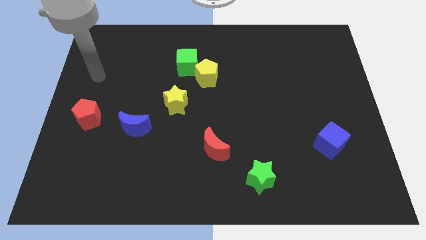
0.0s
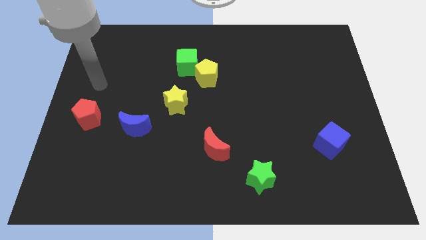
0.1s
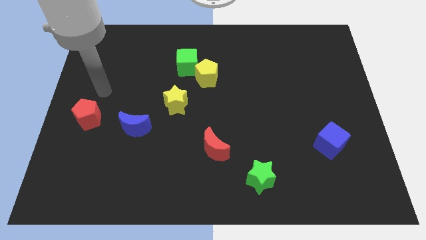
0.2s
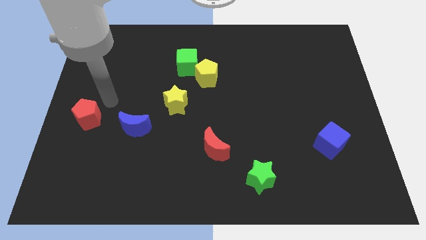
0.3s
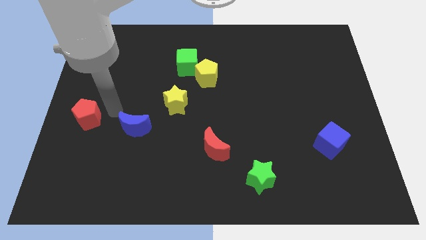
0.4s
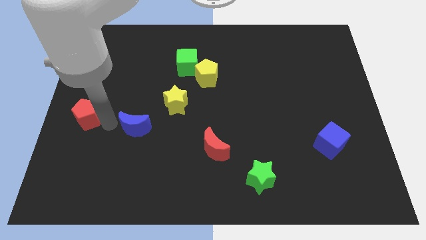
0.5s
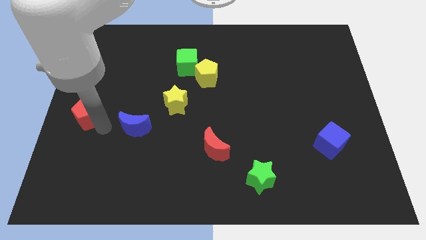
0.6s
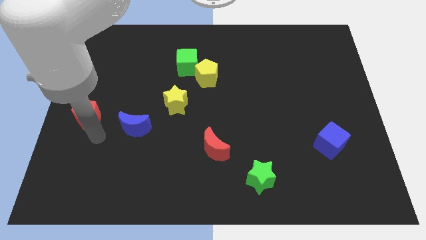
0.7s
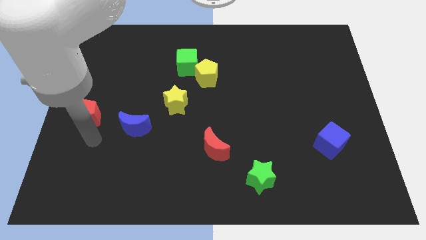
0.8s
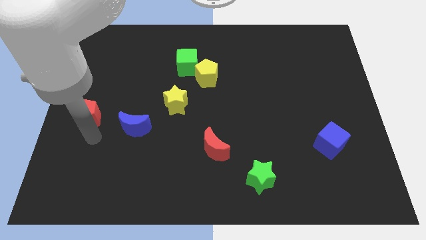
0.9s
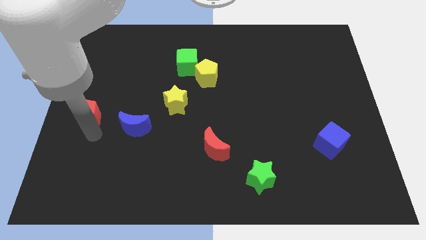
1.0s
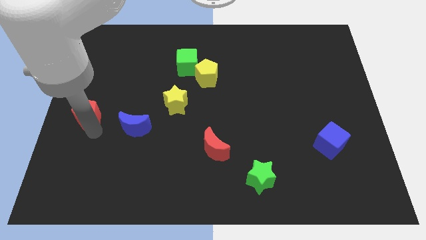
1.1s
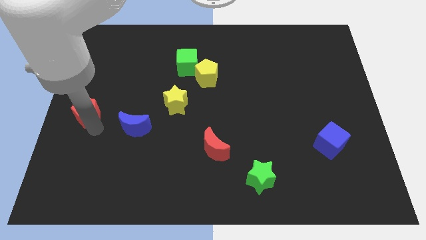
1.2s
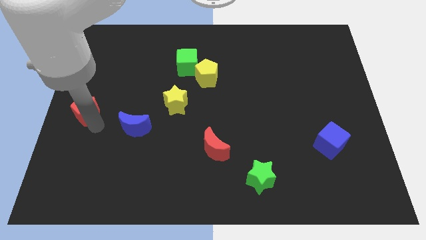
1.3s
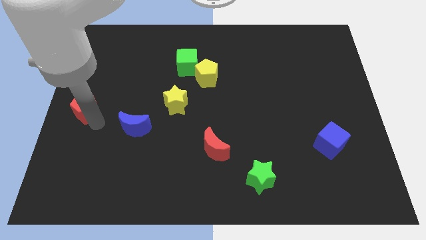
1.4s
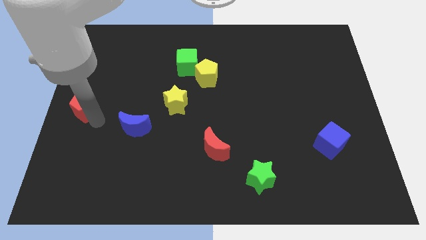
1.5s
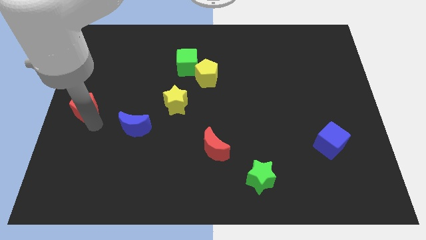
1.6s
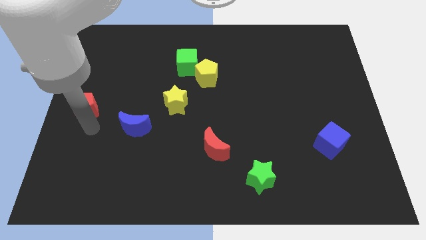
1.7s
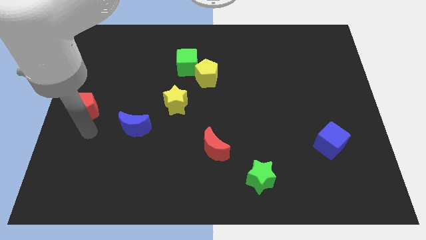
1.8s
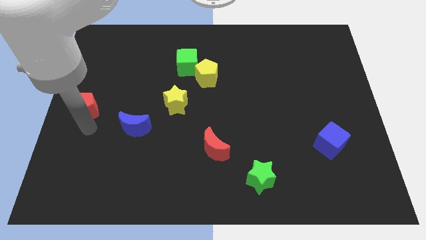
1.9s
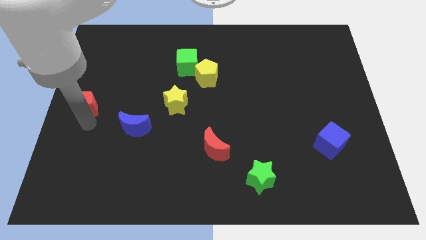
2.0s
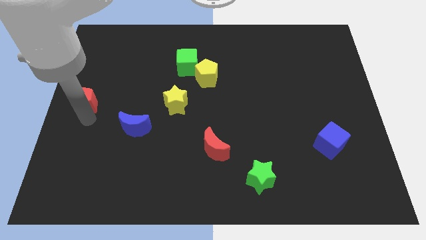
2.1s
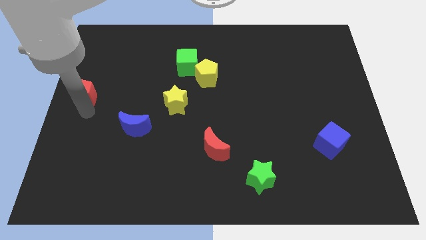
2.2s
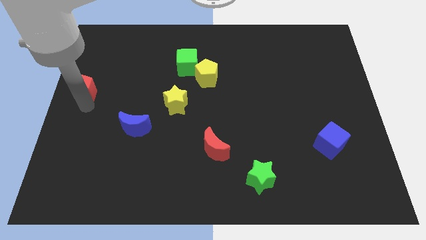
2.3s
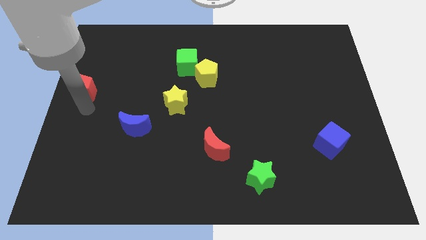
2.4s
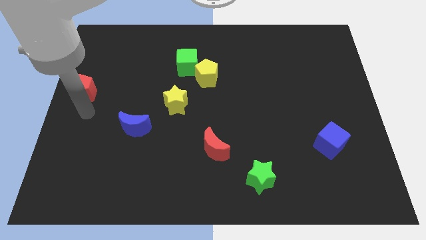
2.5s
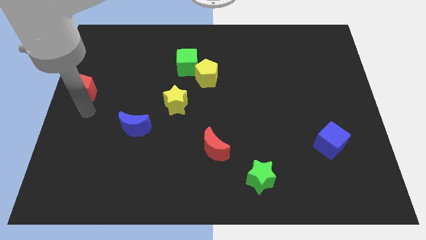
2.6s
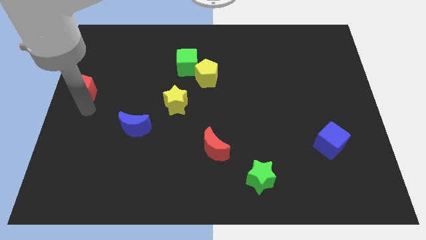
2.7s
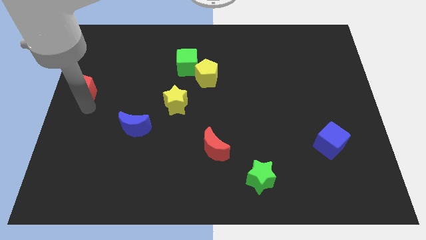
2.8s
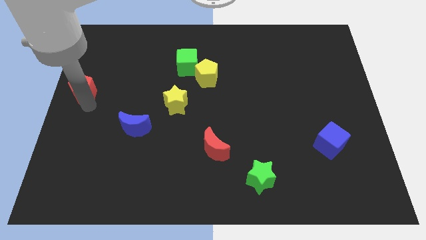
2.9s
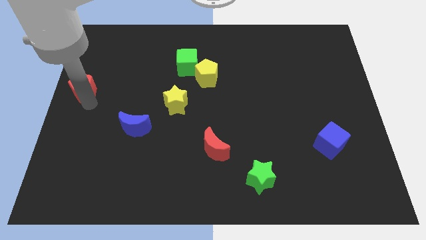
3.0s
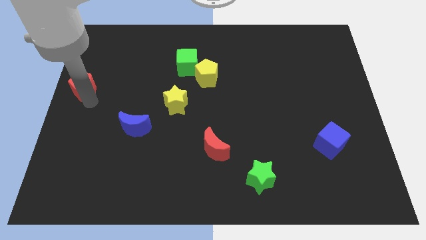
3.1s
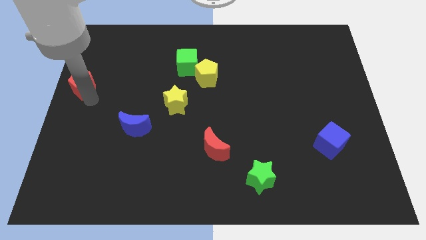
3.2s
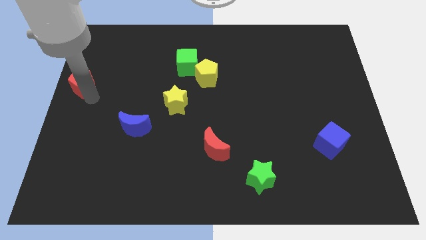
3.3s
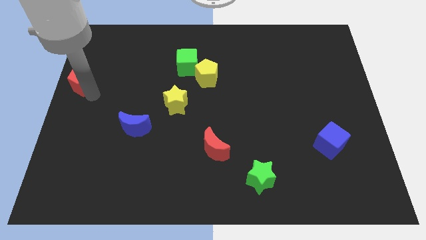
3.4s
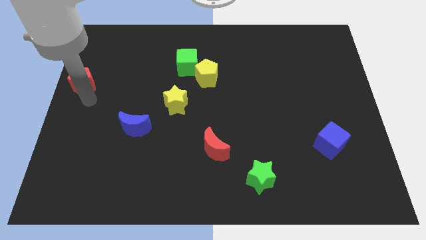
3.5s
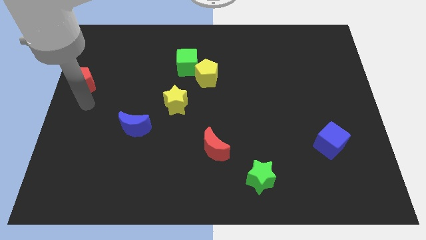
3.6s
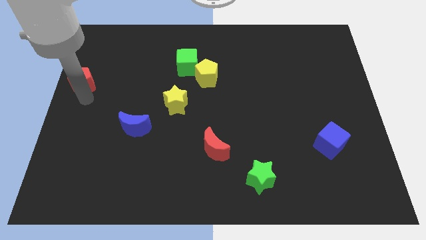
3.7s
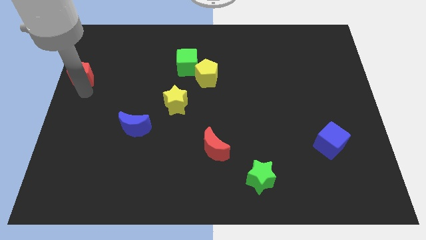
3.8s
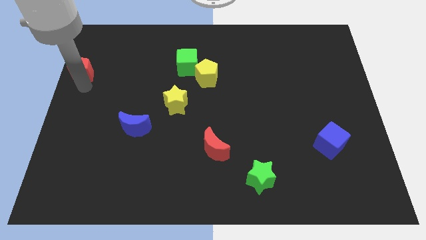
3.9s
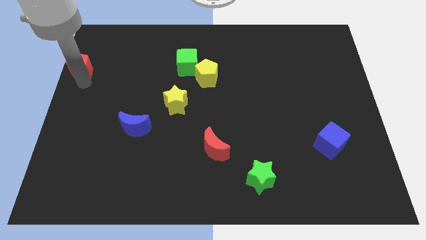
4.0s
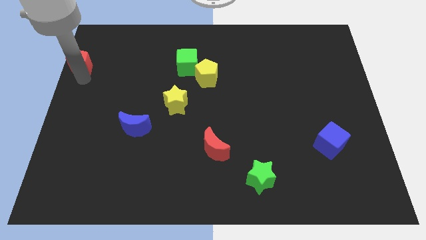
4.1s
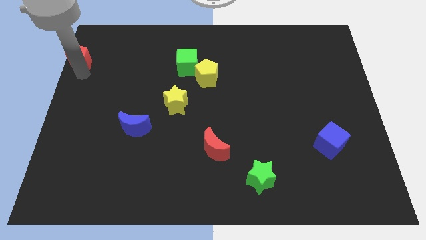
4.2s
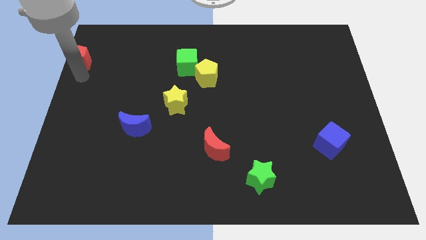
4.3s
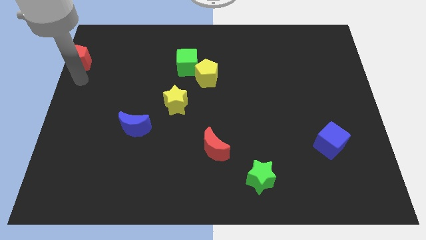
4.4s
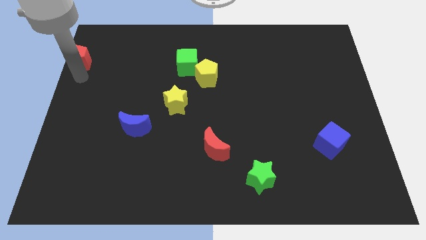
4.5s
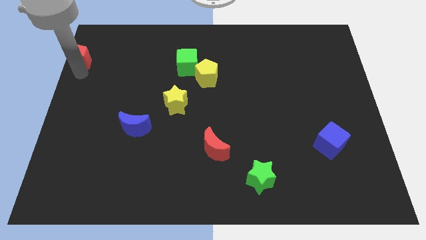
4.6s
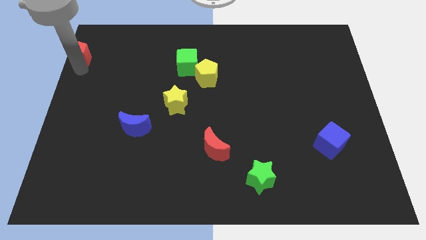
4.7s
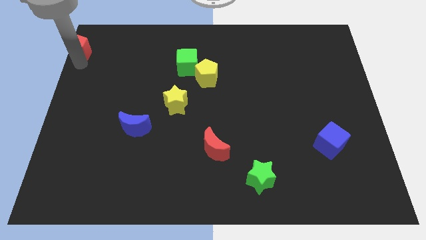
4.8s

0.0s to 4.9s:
put the red pentagon to the top left of the board

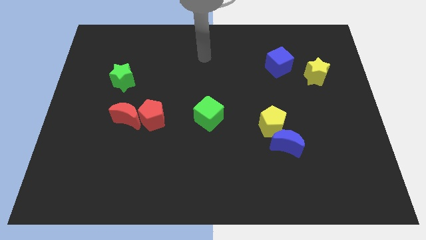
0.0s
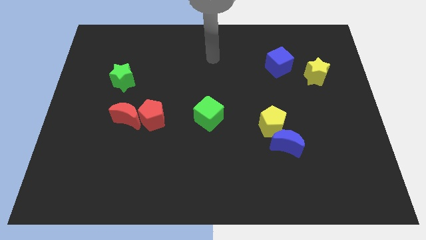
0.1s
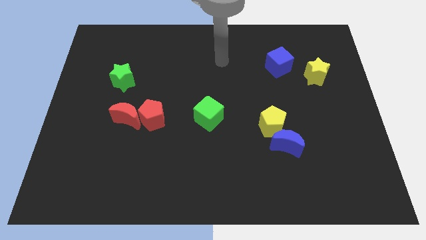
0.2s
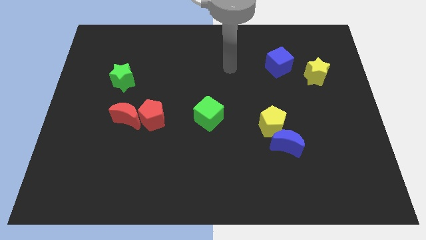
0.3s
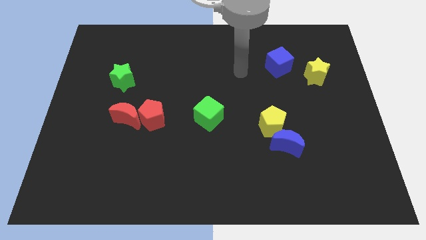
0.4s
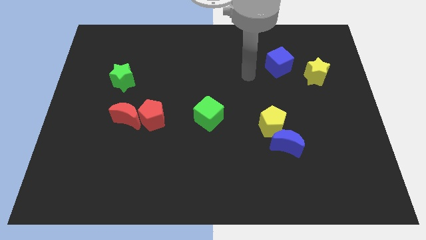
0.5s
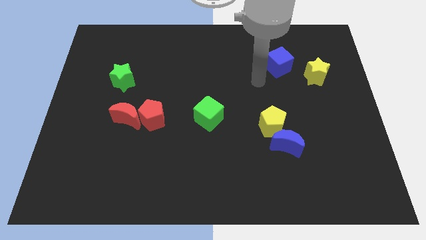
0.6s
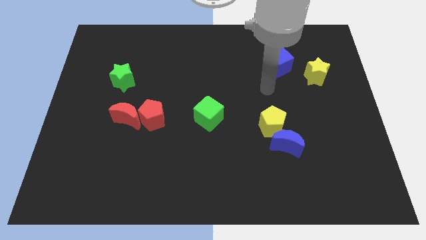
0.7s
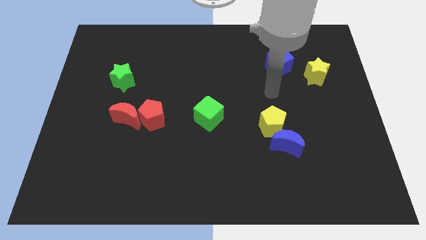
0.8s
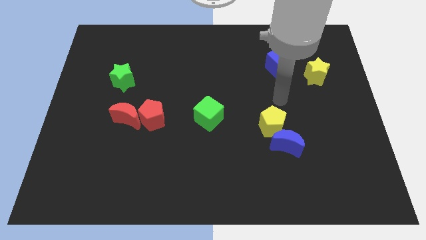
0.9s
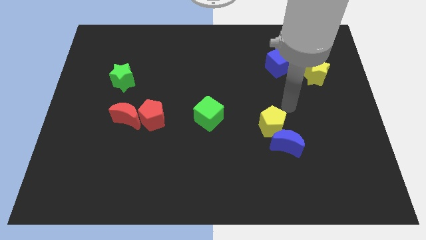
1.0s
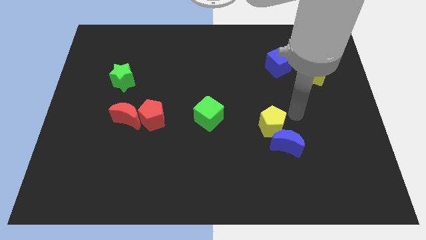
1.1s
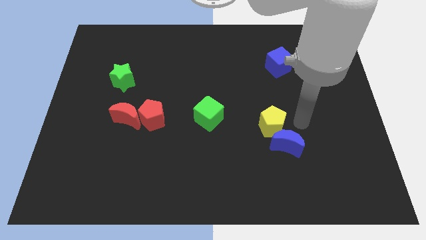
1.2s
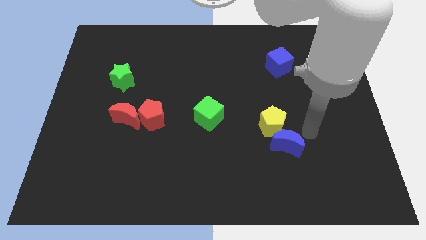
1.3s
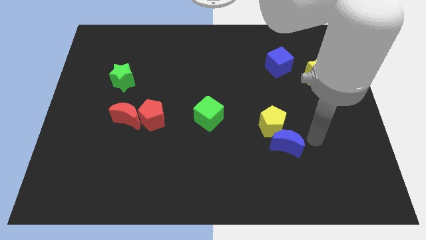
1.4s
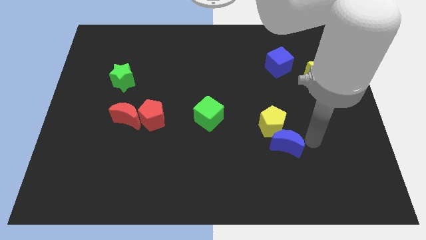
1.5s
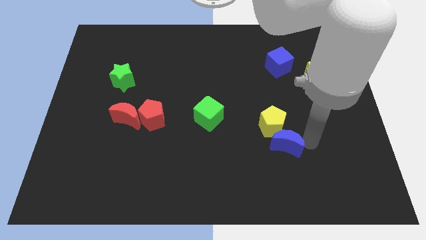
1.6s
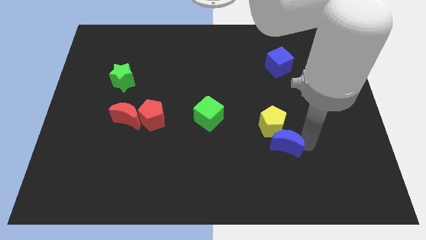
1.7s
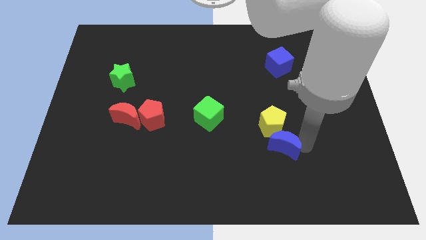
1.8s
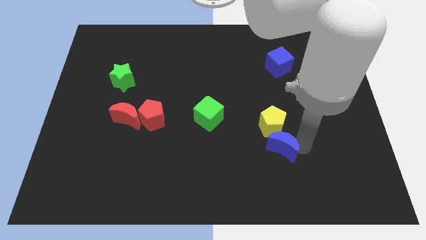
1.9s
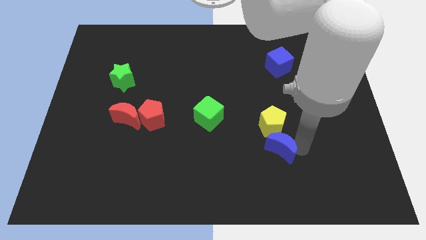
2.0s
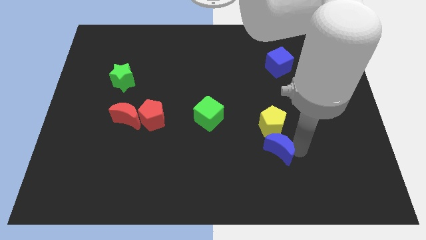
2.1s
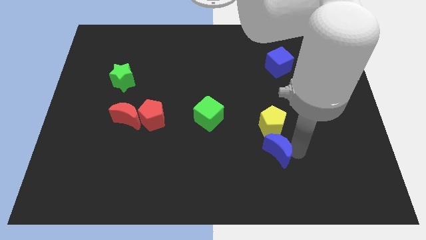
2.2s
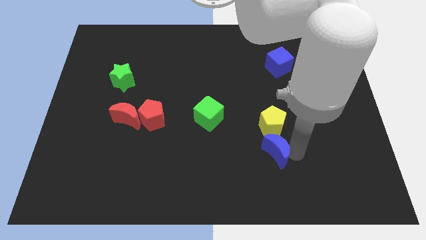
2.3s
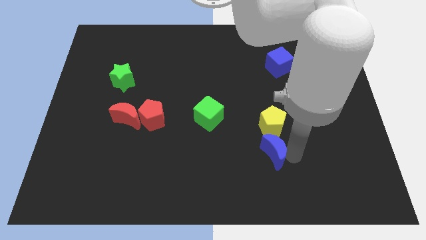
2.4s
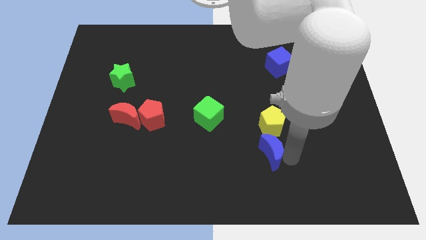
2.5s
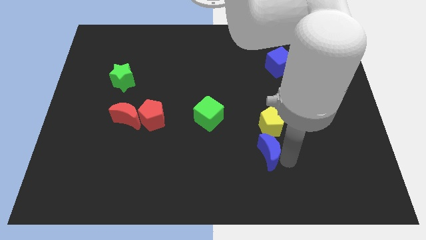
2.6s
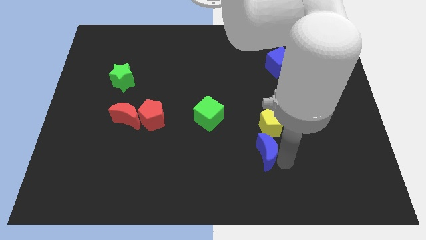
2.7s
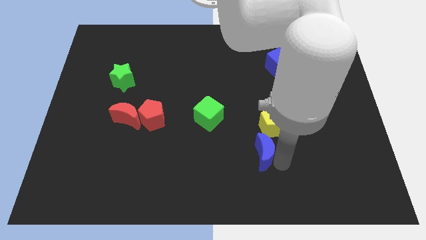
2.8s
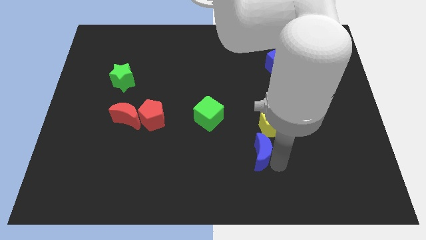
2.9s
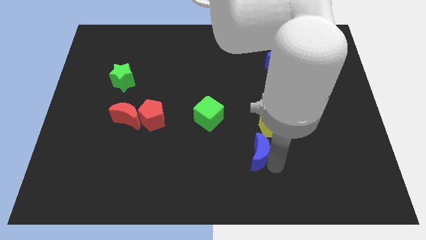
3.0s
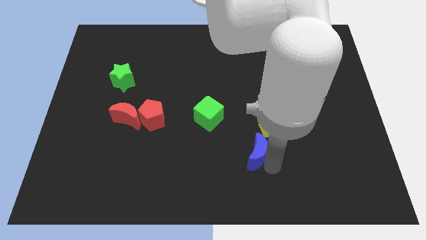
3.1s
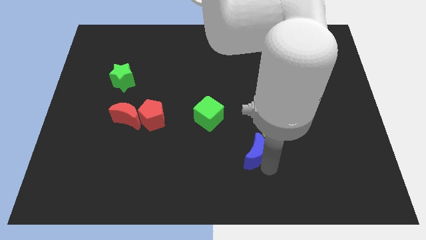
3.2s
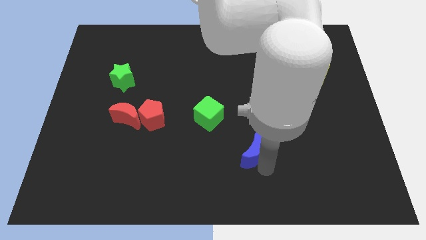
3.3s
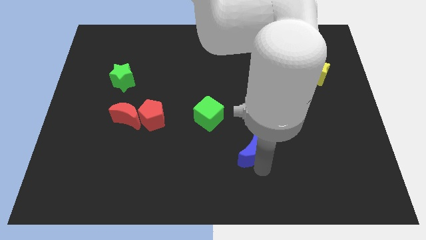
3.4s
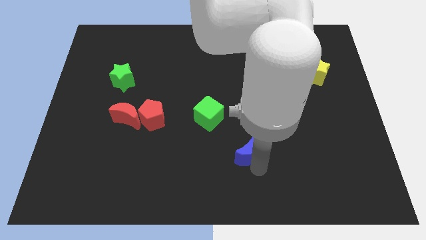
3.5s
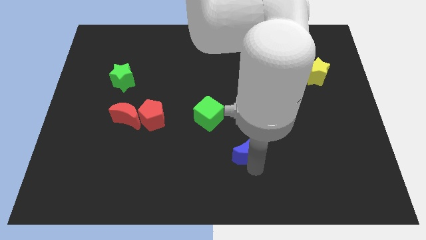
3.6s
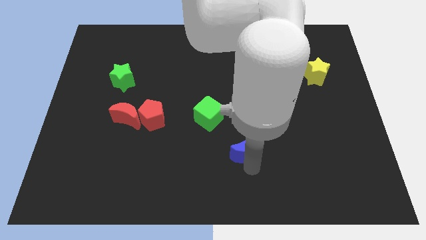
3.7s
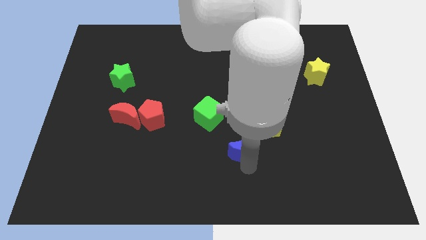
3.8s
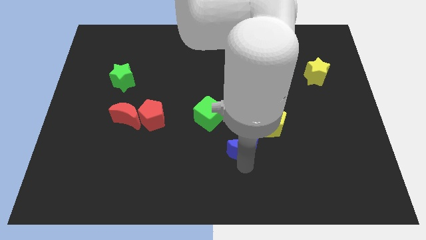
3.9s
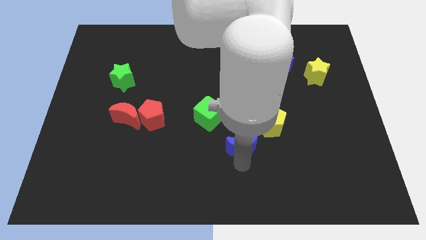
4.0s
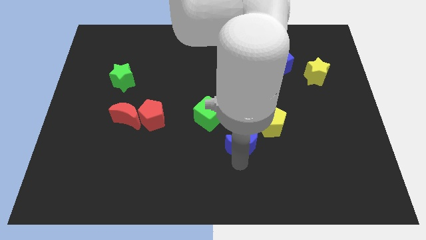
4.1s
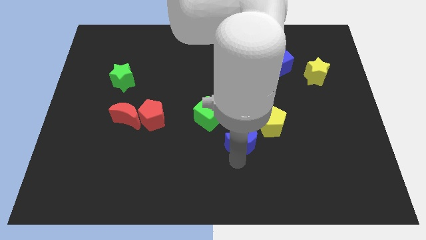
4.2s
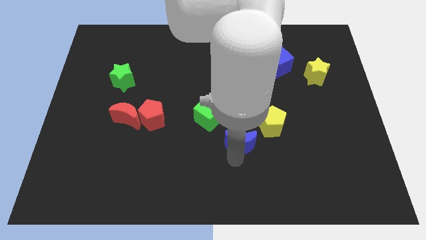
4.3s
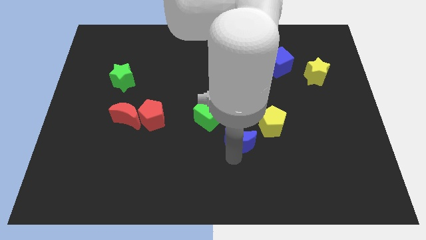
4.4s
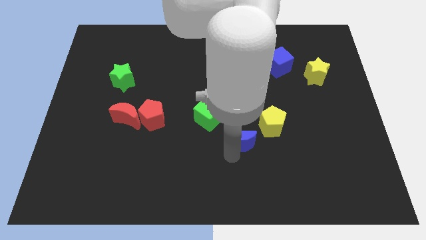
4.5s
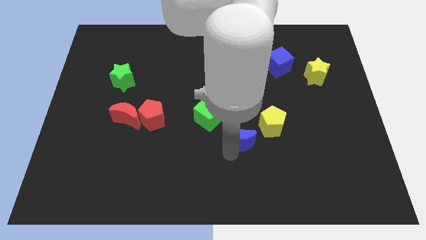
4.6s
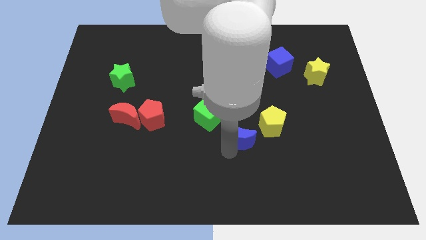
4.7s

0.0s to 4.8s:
move the blue moon to the middle of the board
